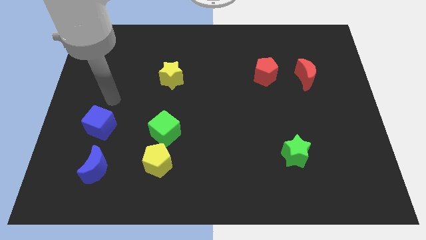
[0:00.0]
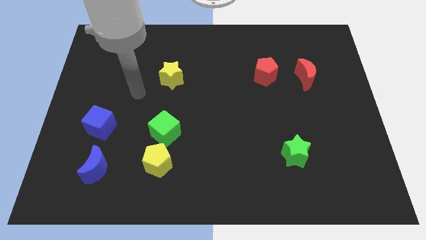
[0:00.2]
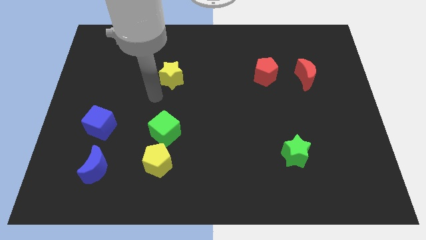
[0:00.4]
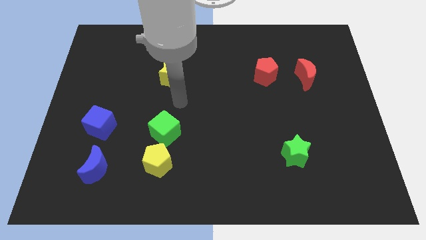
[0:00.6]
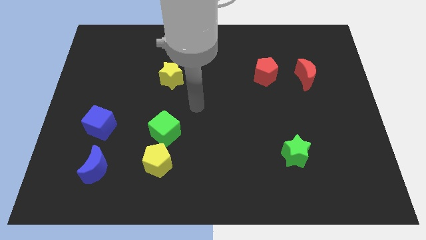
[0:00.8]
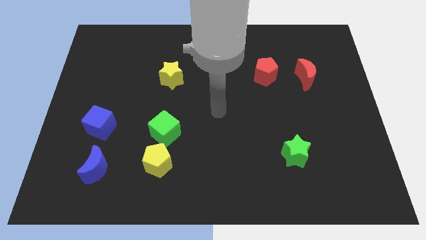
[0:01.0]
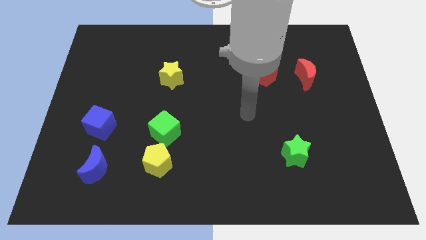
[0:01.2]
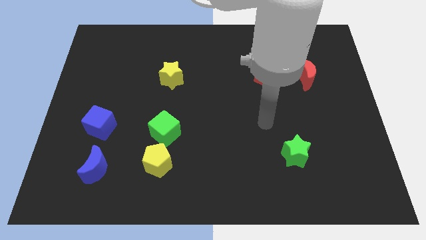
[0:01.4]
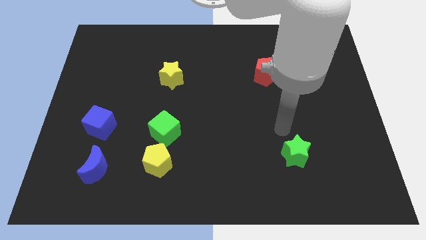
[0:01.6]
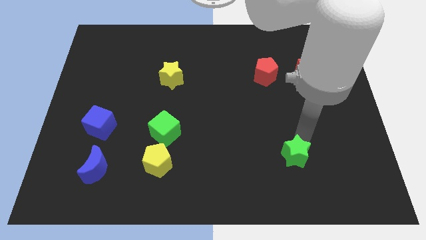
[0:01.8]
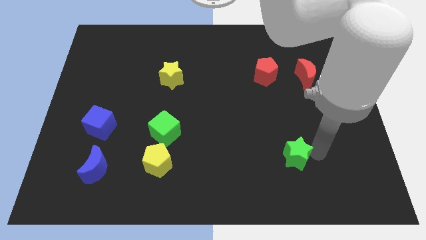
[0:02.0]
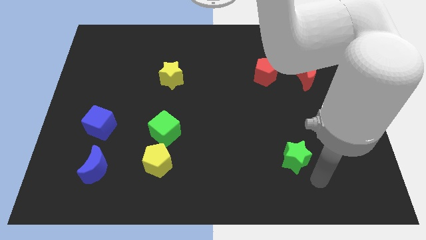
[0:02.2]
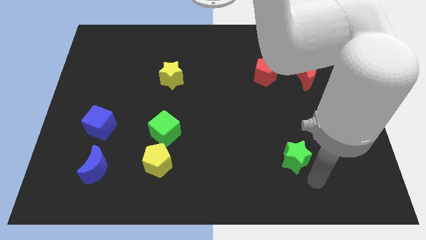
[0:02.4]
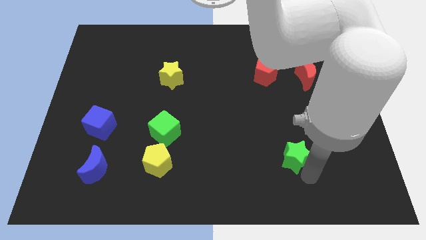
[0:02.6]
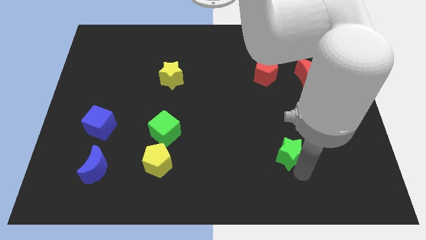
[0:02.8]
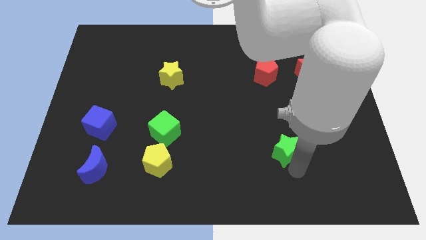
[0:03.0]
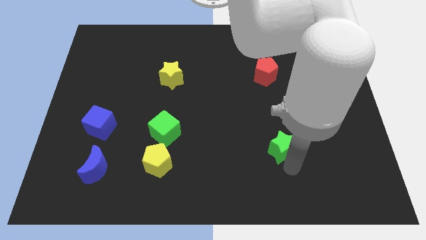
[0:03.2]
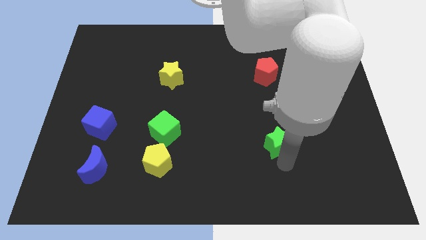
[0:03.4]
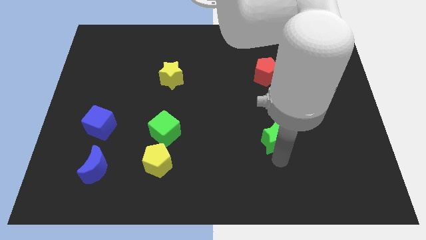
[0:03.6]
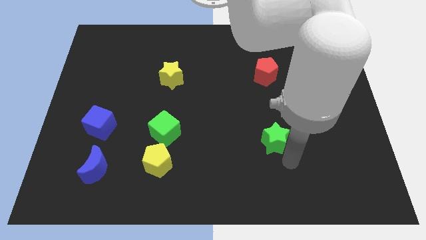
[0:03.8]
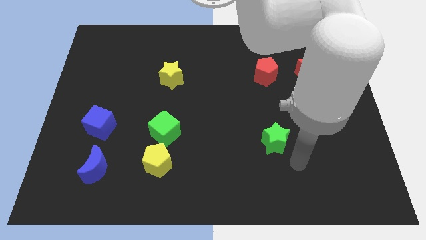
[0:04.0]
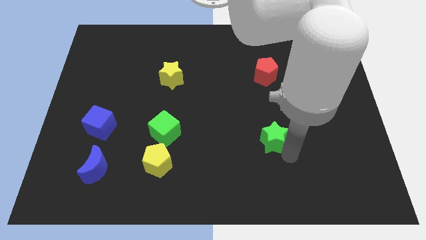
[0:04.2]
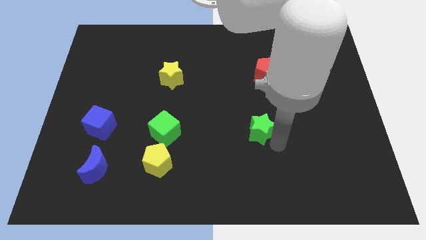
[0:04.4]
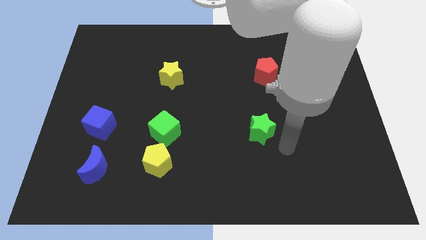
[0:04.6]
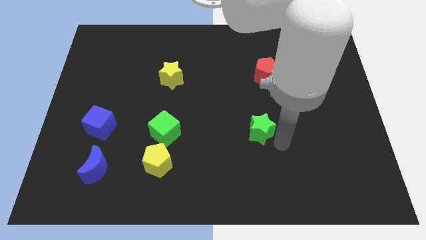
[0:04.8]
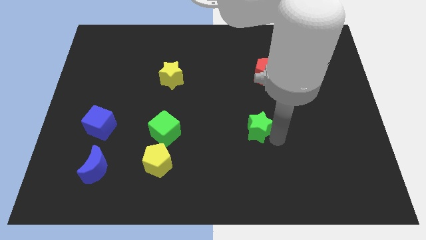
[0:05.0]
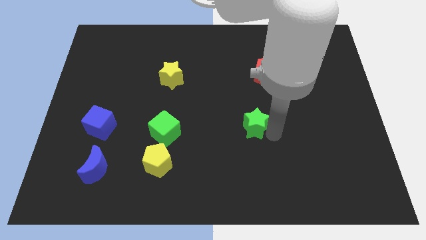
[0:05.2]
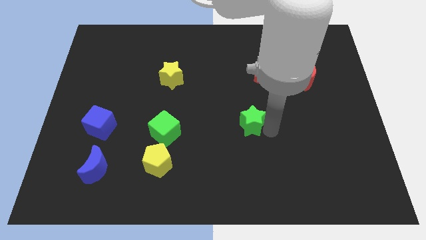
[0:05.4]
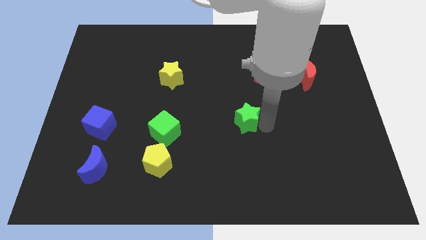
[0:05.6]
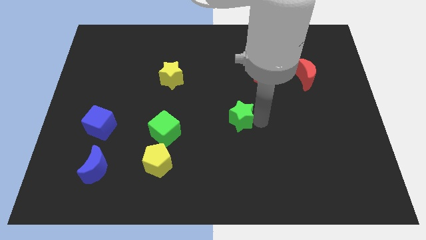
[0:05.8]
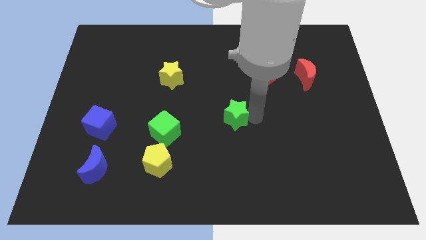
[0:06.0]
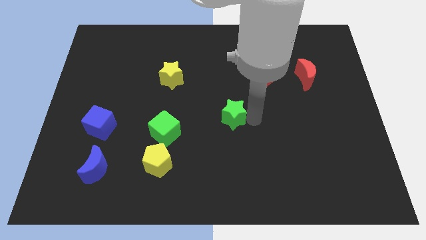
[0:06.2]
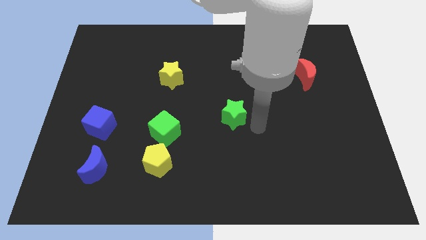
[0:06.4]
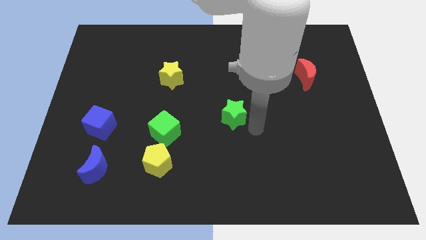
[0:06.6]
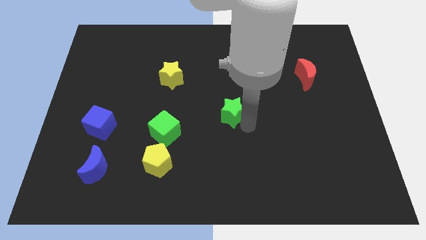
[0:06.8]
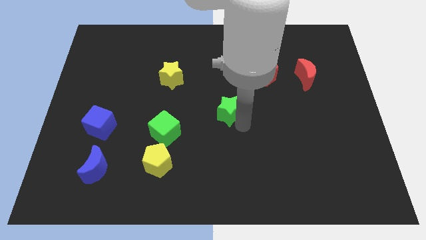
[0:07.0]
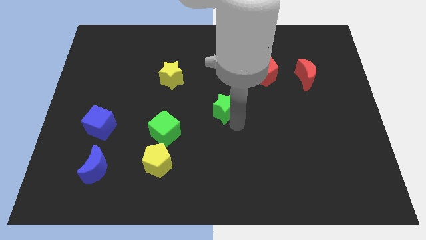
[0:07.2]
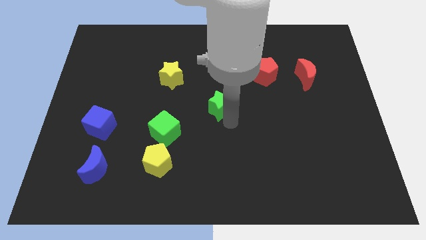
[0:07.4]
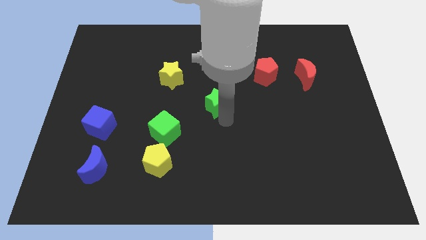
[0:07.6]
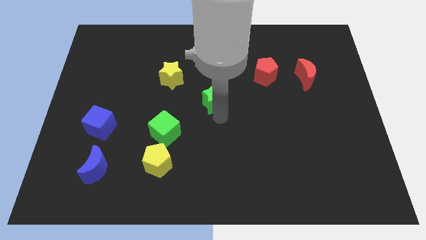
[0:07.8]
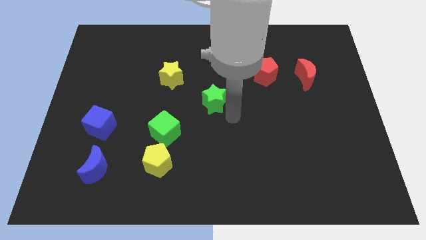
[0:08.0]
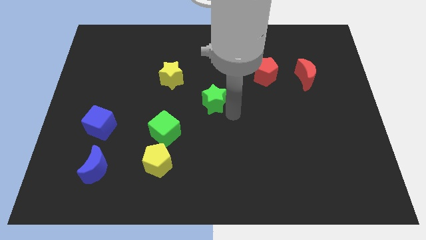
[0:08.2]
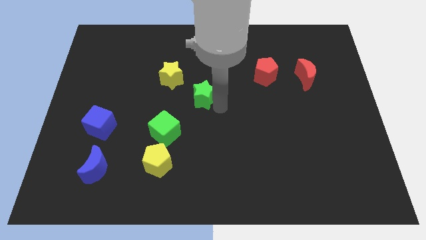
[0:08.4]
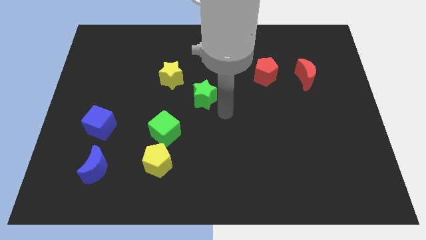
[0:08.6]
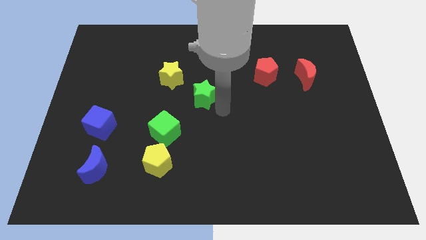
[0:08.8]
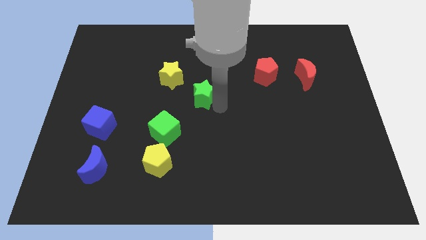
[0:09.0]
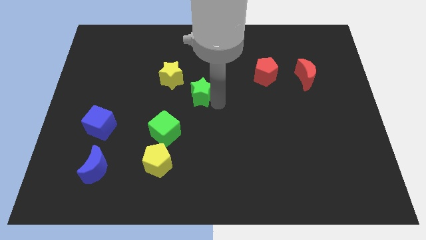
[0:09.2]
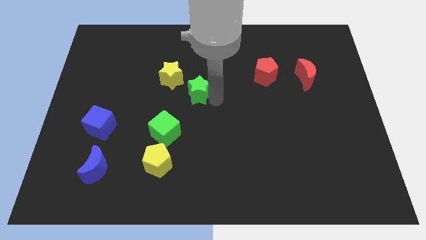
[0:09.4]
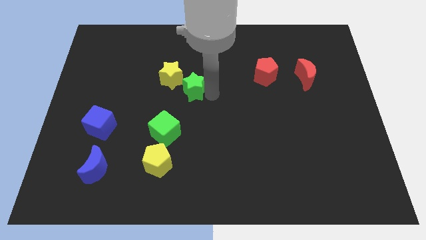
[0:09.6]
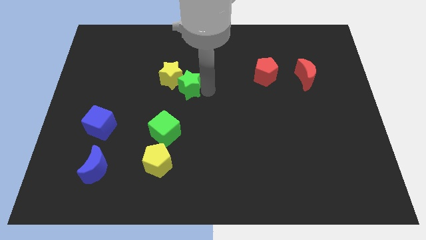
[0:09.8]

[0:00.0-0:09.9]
slide the green star close to the yellow star

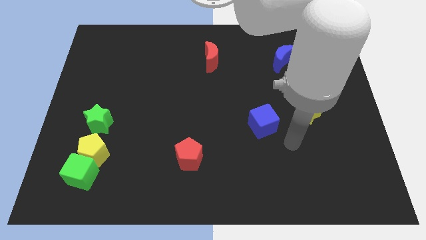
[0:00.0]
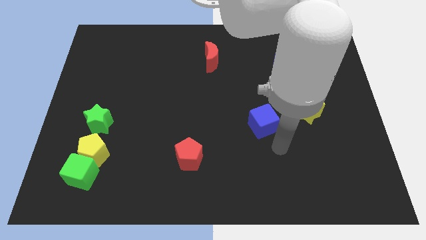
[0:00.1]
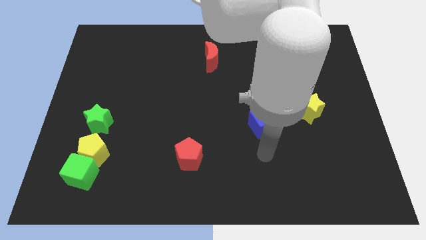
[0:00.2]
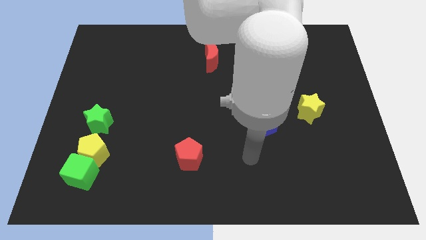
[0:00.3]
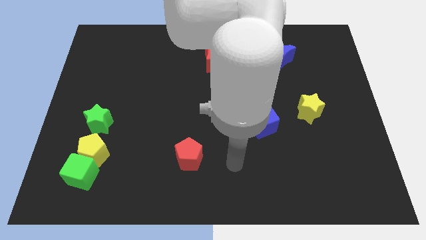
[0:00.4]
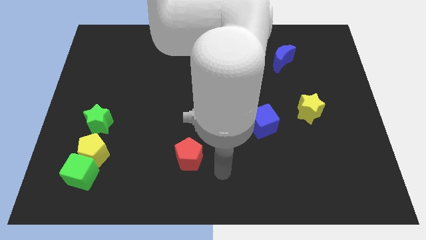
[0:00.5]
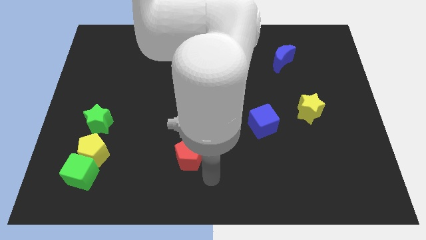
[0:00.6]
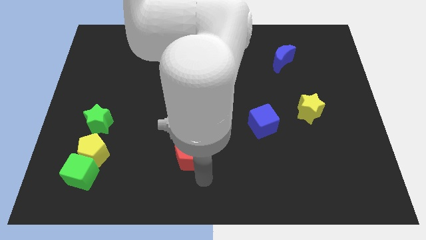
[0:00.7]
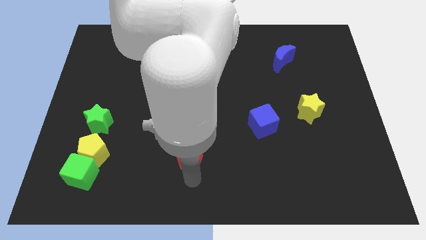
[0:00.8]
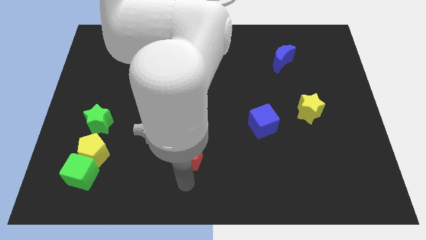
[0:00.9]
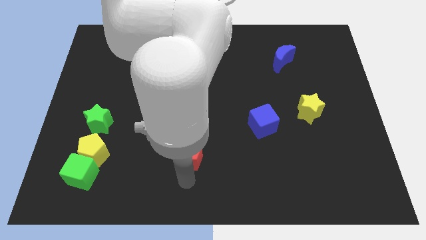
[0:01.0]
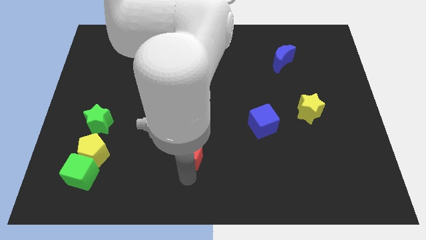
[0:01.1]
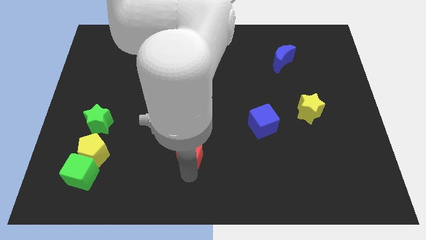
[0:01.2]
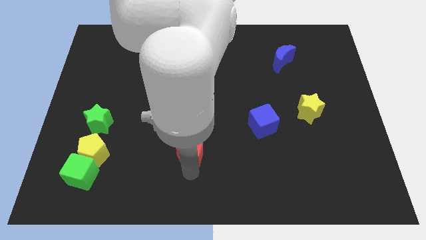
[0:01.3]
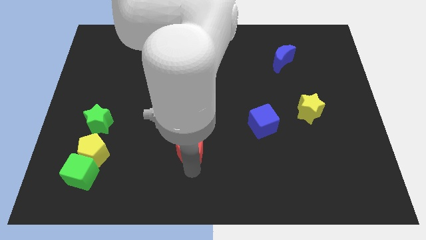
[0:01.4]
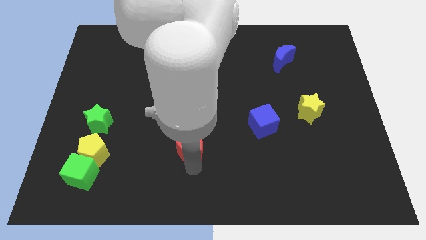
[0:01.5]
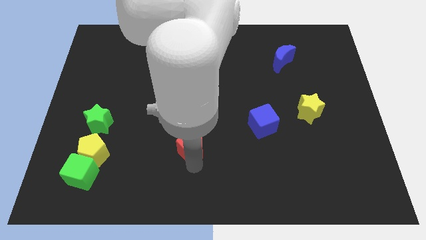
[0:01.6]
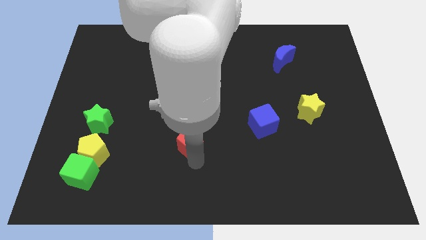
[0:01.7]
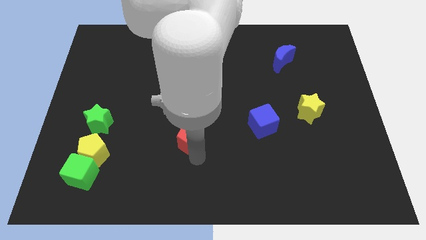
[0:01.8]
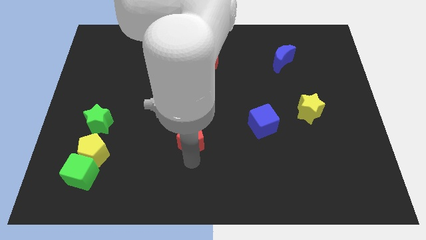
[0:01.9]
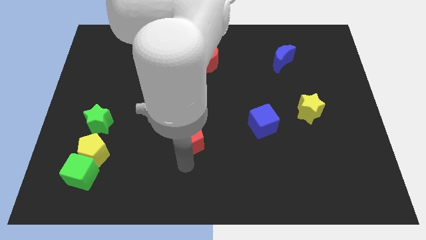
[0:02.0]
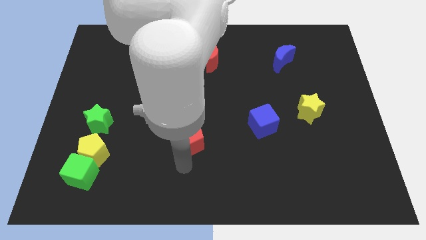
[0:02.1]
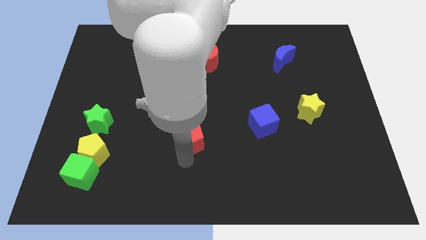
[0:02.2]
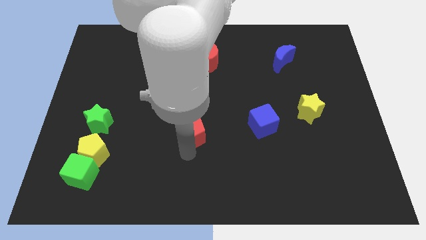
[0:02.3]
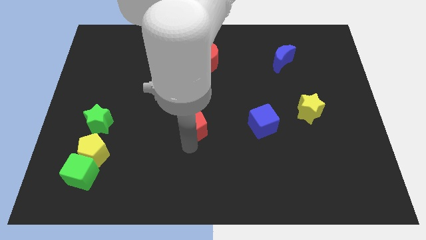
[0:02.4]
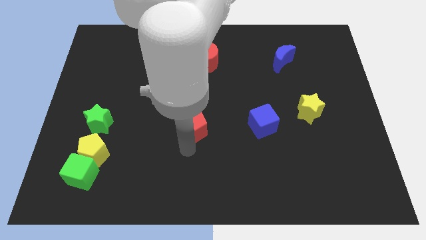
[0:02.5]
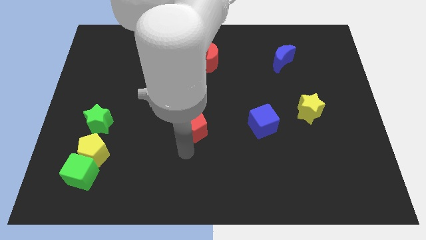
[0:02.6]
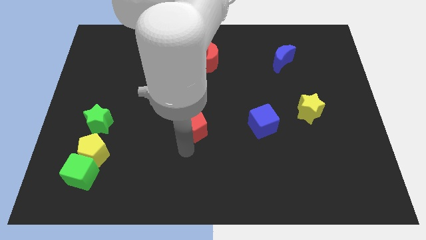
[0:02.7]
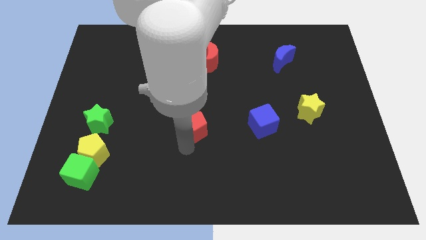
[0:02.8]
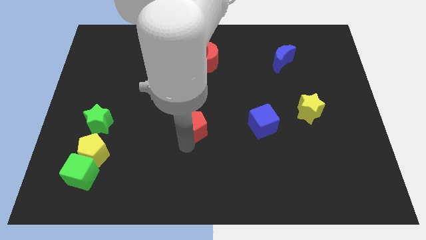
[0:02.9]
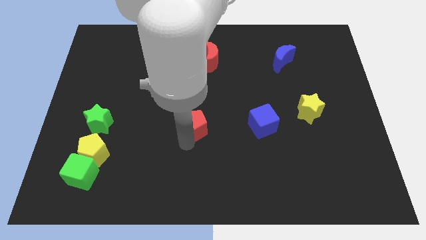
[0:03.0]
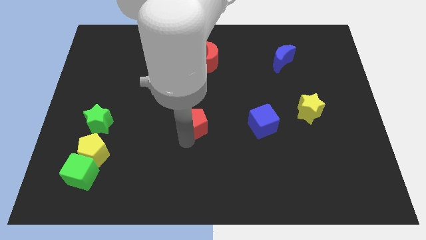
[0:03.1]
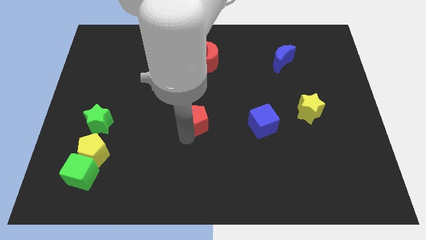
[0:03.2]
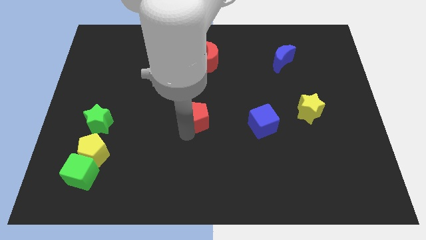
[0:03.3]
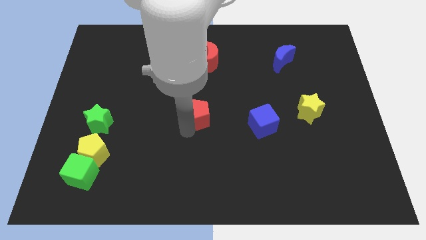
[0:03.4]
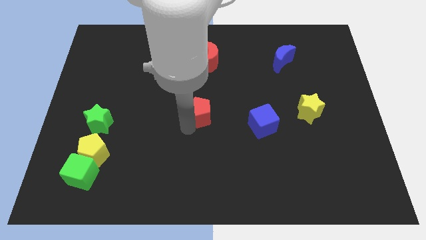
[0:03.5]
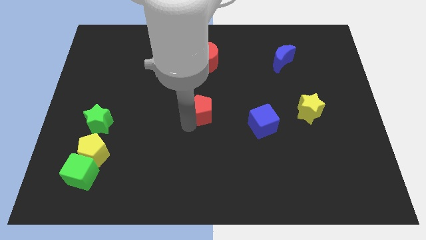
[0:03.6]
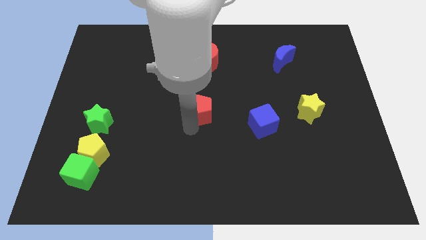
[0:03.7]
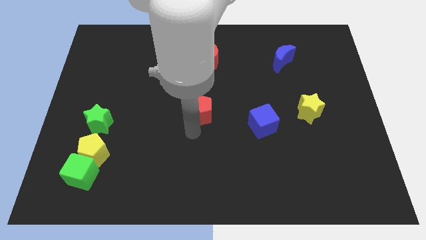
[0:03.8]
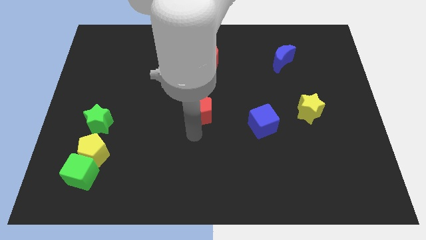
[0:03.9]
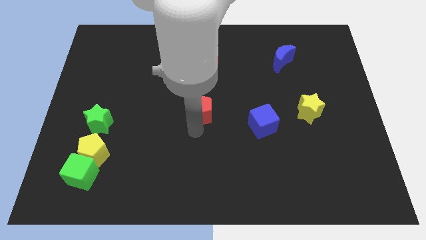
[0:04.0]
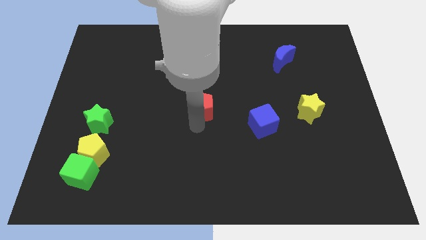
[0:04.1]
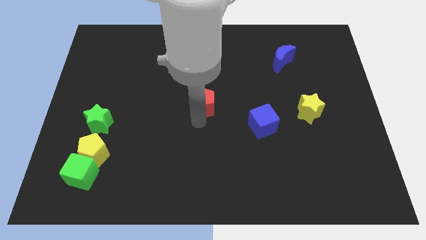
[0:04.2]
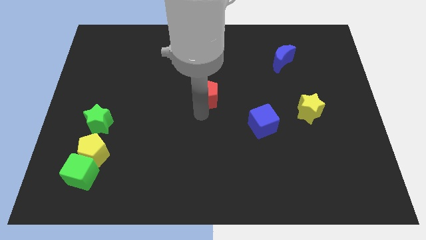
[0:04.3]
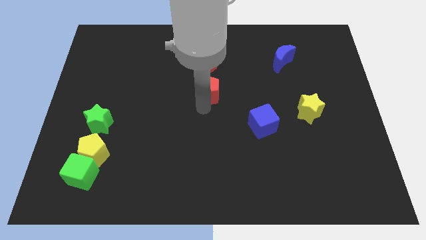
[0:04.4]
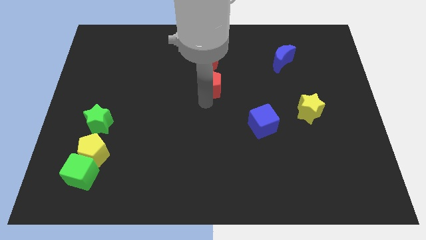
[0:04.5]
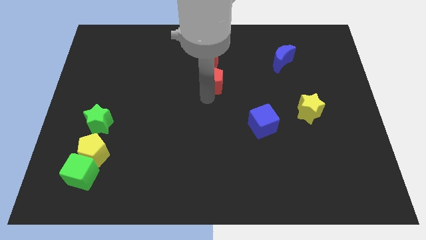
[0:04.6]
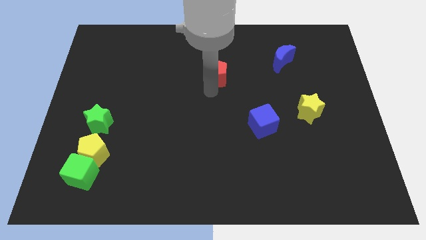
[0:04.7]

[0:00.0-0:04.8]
slide the red pentagon close to the red moon
